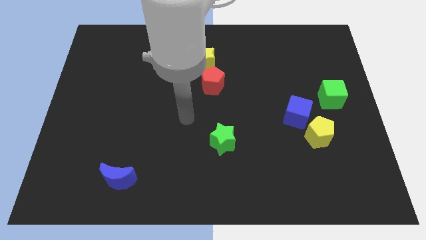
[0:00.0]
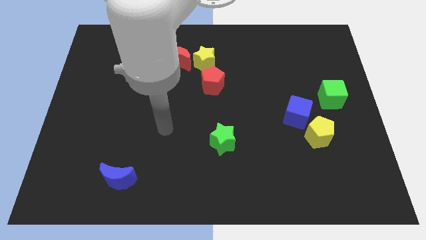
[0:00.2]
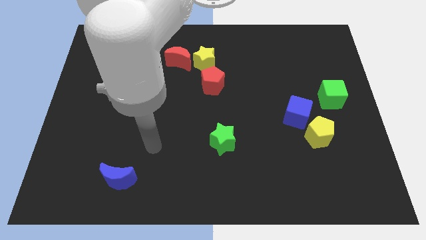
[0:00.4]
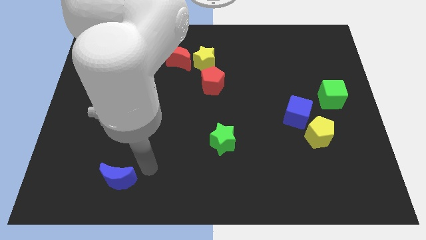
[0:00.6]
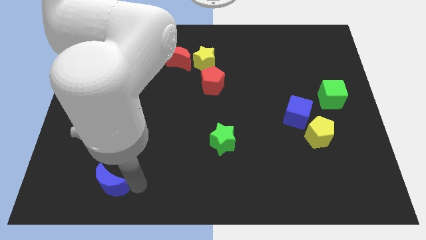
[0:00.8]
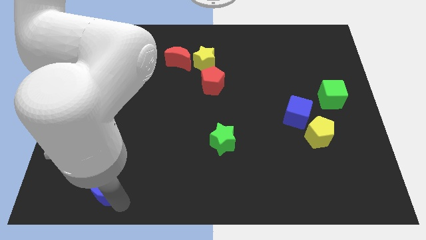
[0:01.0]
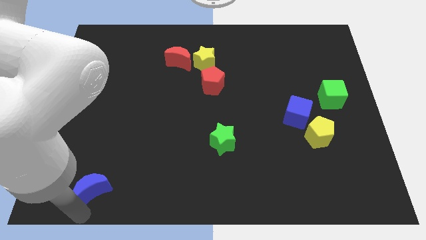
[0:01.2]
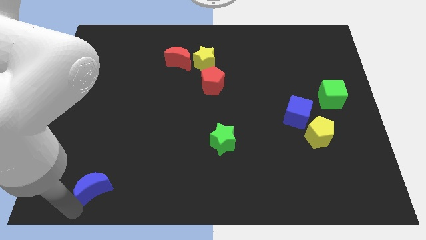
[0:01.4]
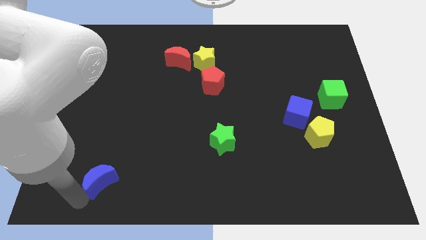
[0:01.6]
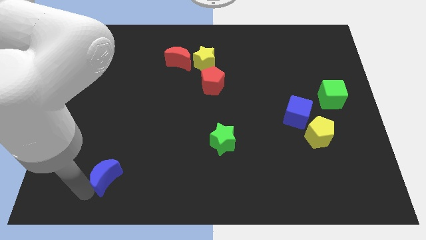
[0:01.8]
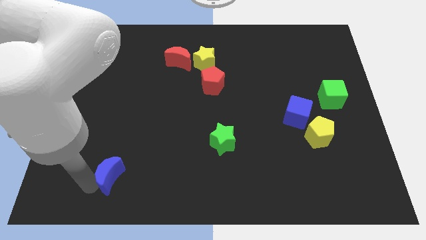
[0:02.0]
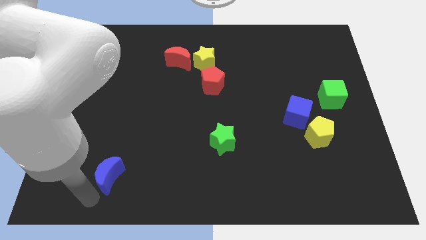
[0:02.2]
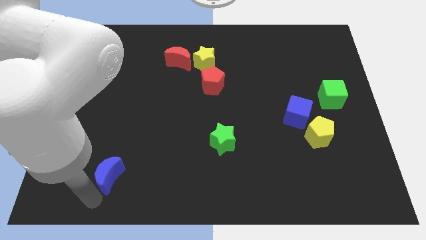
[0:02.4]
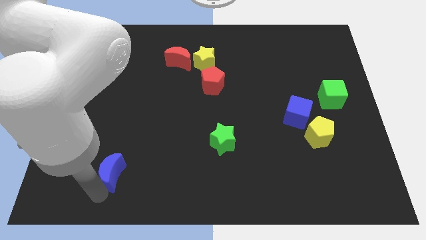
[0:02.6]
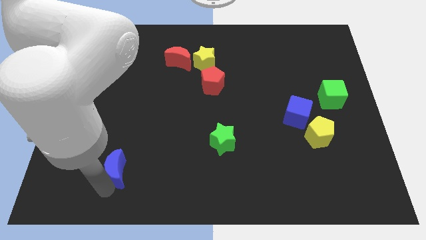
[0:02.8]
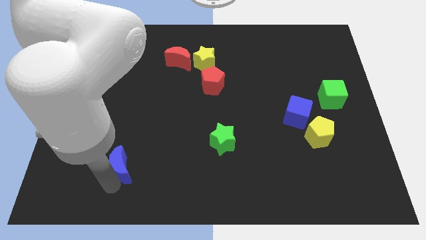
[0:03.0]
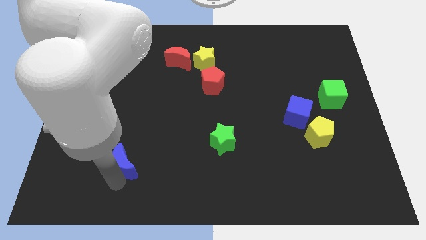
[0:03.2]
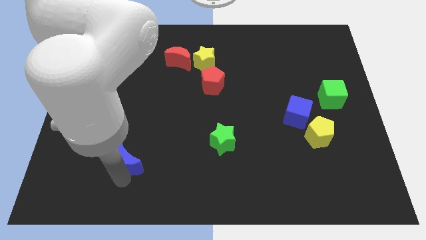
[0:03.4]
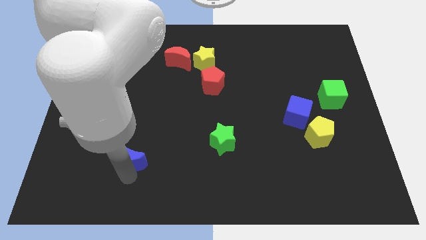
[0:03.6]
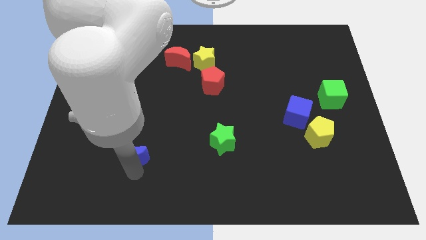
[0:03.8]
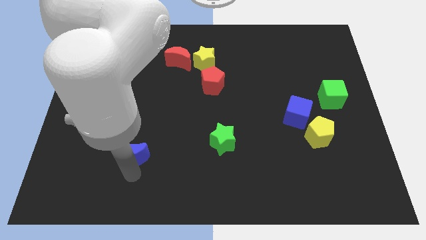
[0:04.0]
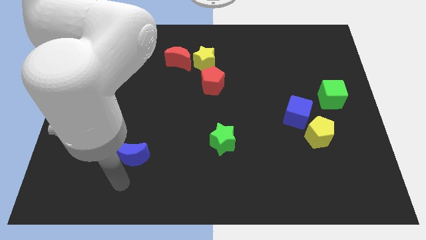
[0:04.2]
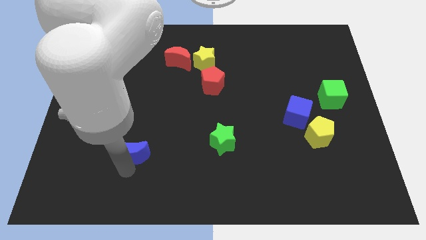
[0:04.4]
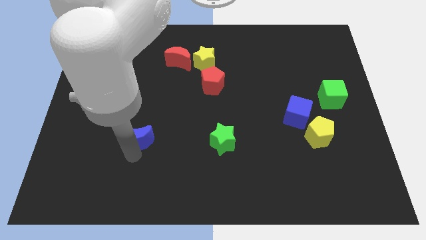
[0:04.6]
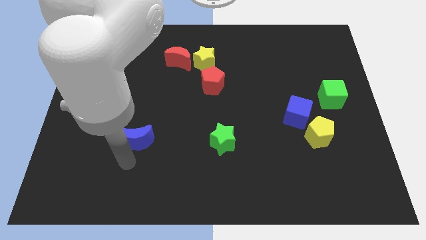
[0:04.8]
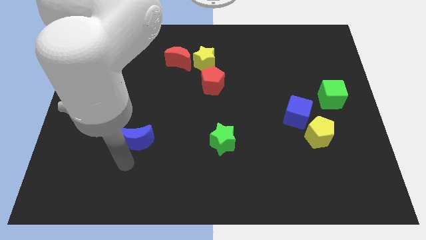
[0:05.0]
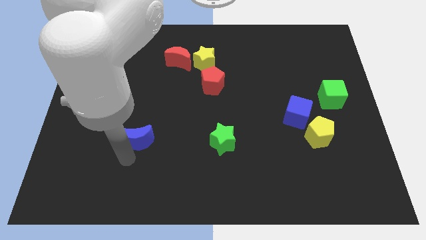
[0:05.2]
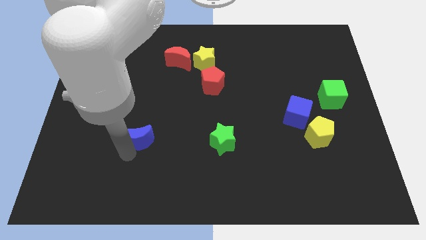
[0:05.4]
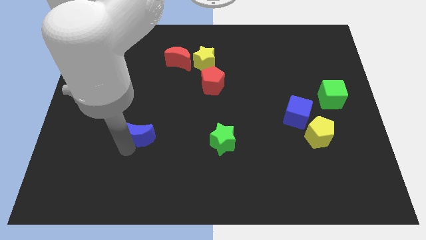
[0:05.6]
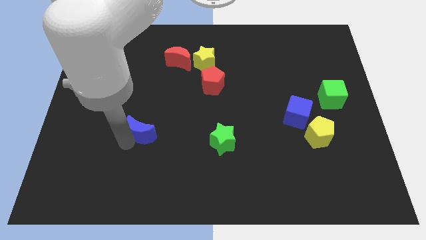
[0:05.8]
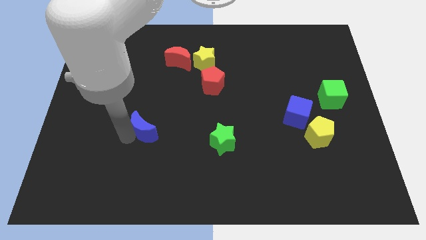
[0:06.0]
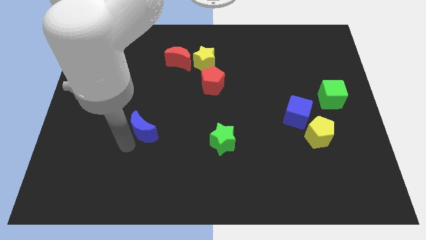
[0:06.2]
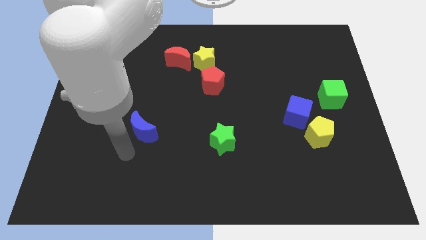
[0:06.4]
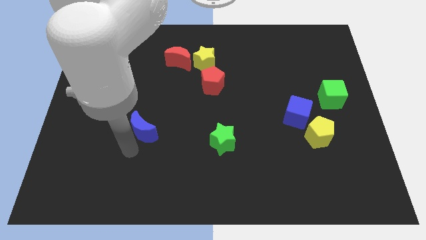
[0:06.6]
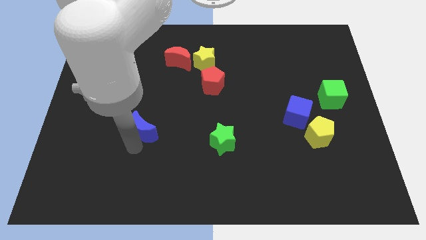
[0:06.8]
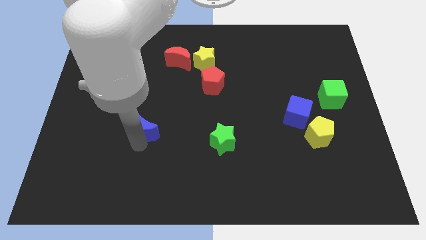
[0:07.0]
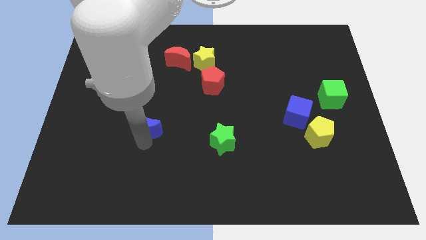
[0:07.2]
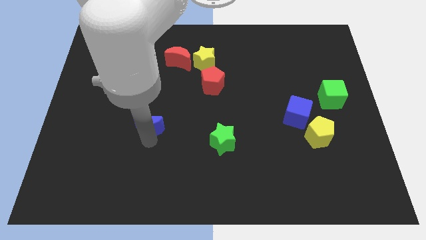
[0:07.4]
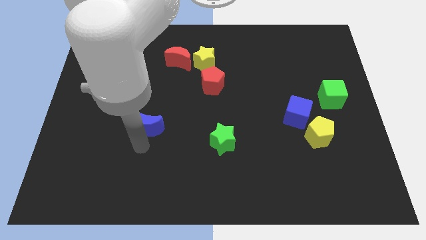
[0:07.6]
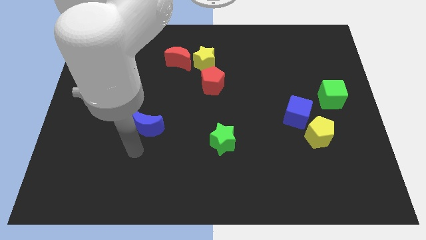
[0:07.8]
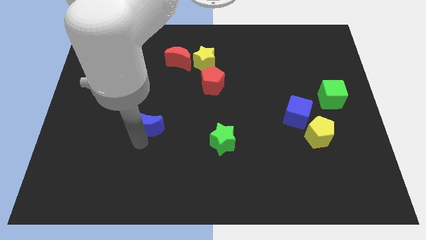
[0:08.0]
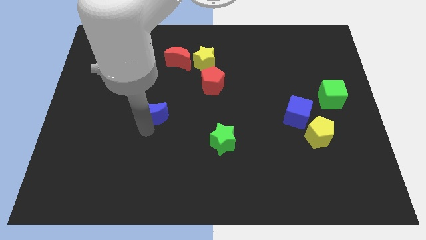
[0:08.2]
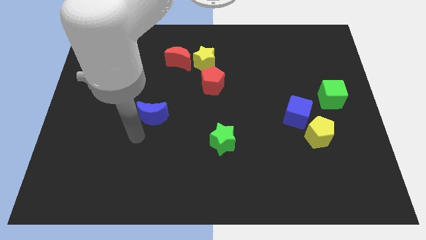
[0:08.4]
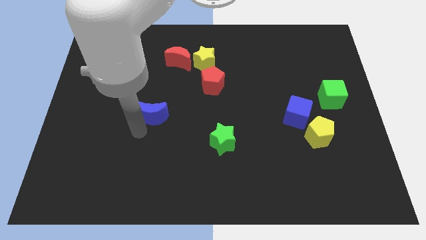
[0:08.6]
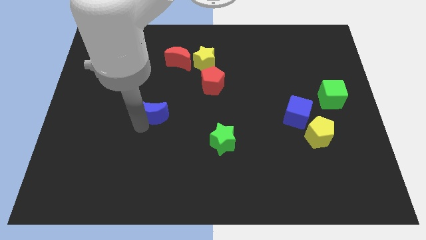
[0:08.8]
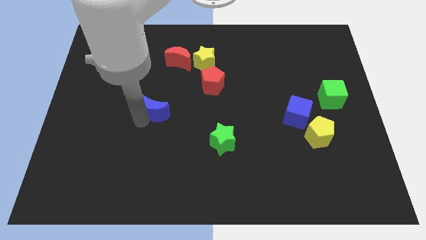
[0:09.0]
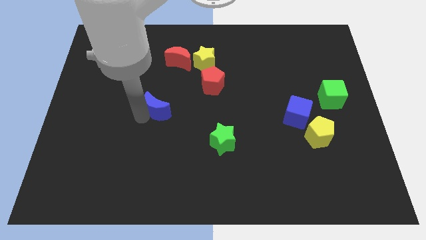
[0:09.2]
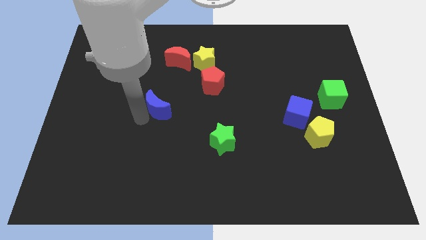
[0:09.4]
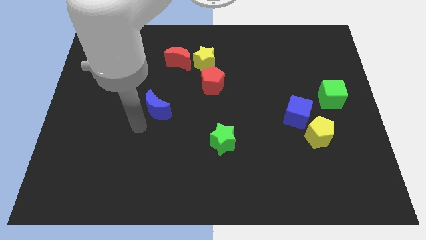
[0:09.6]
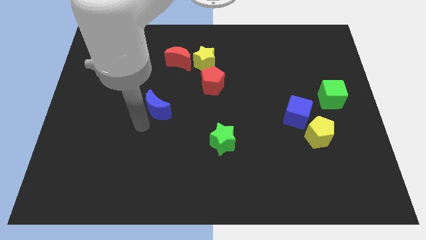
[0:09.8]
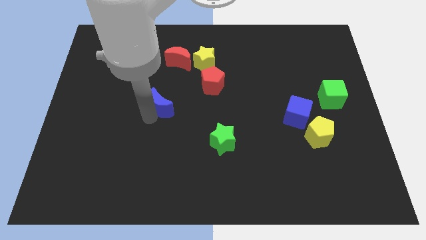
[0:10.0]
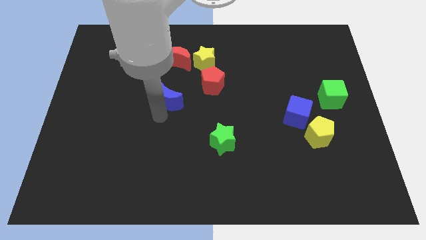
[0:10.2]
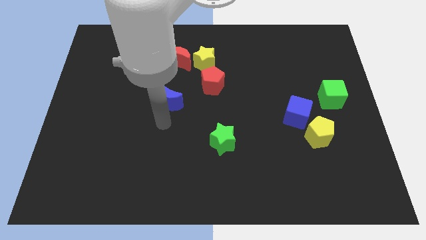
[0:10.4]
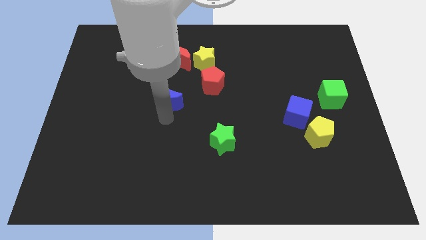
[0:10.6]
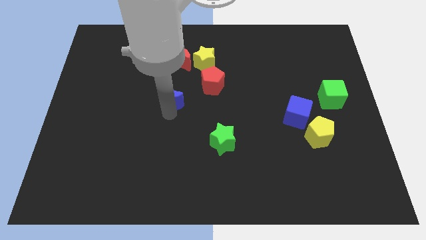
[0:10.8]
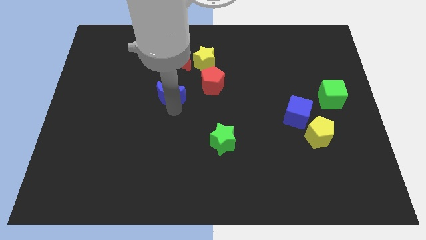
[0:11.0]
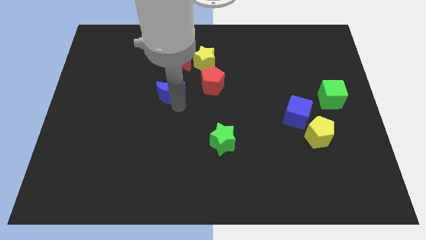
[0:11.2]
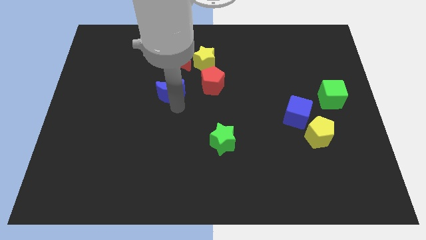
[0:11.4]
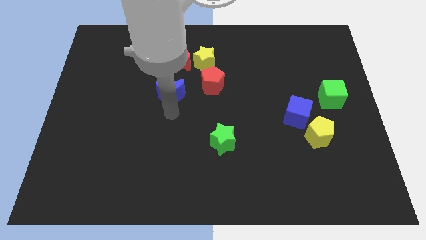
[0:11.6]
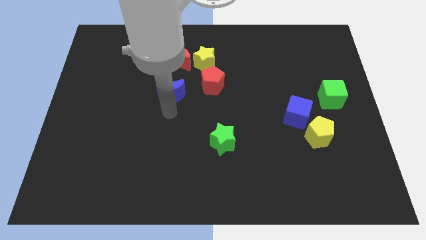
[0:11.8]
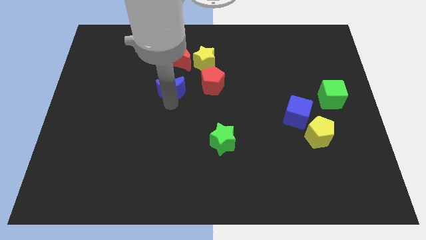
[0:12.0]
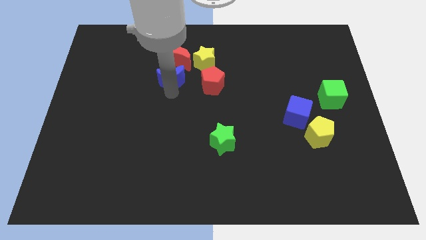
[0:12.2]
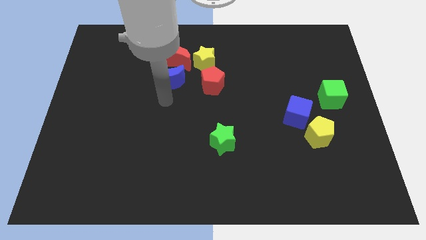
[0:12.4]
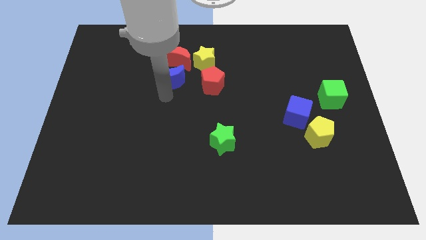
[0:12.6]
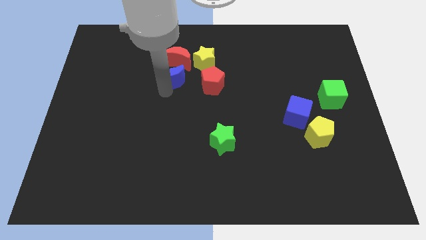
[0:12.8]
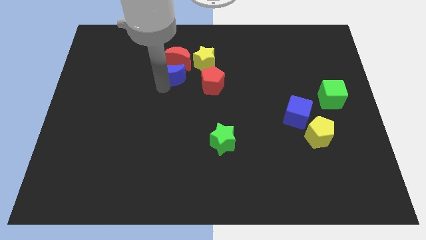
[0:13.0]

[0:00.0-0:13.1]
push the blue moon close to the red moon

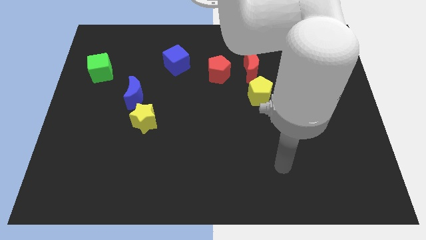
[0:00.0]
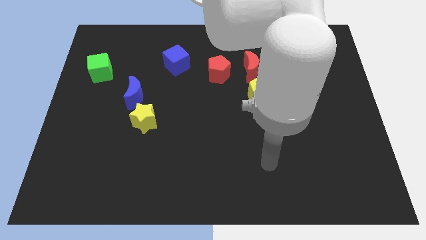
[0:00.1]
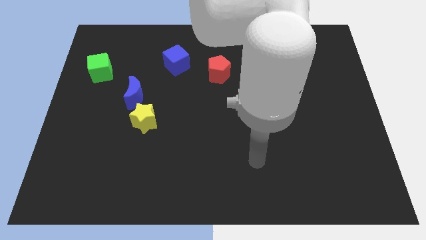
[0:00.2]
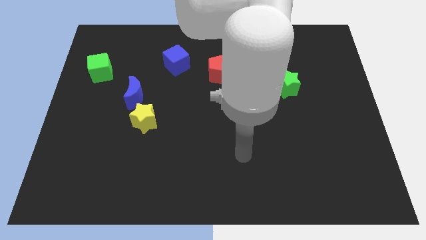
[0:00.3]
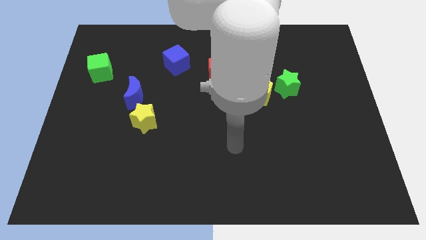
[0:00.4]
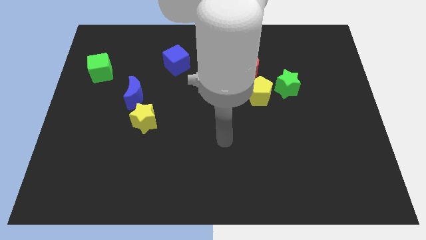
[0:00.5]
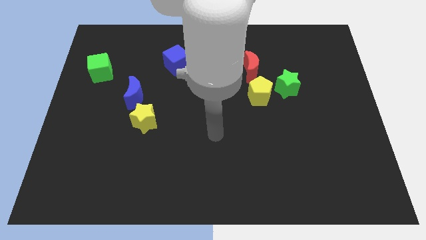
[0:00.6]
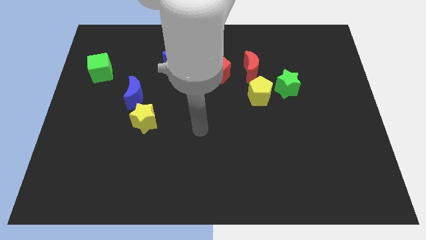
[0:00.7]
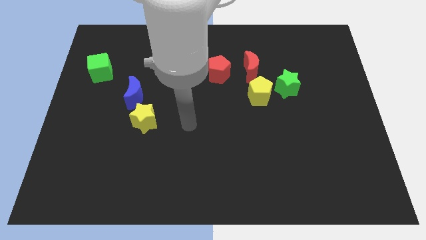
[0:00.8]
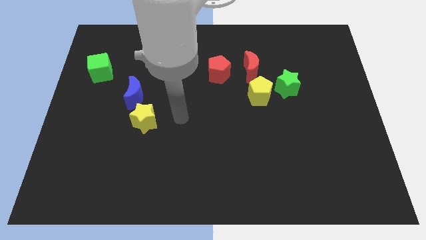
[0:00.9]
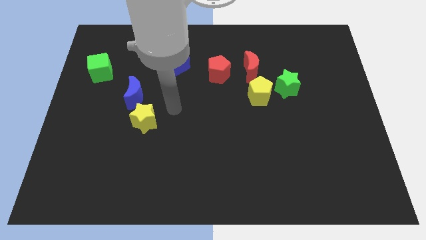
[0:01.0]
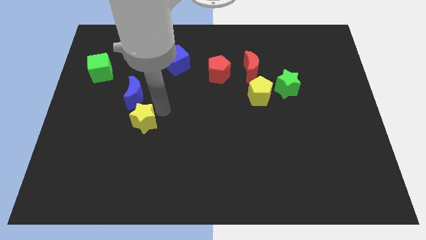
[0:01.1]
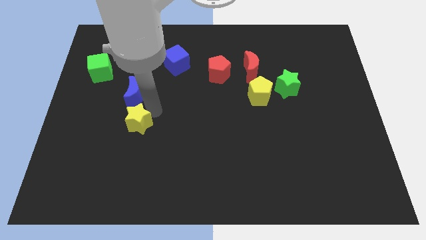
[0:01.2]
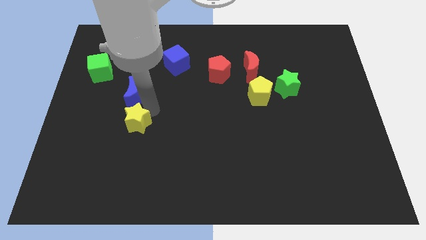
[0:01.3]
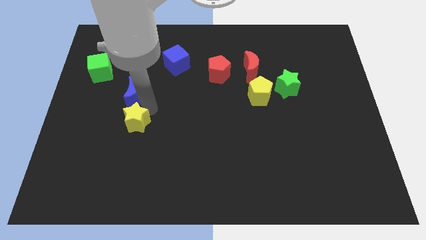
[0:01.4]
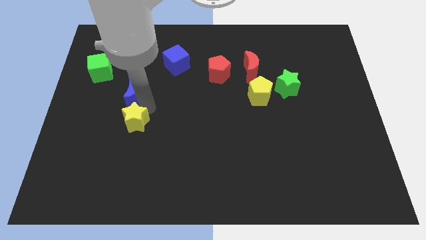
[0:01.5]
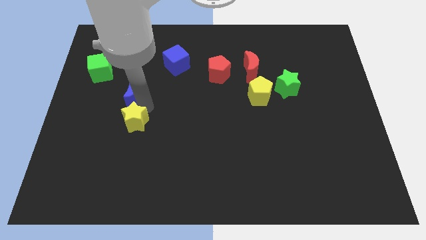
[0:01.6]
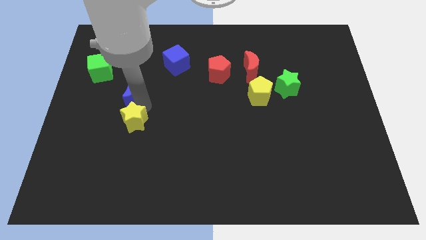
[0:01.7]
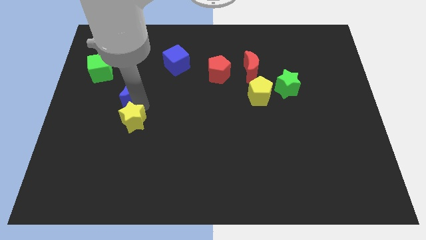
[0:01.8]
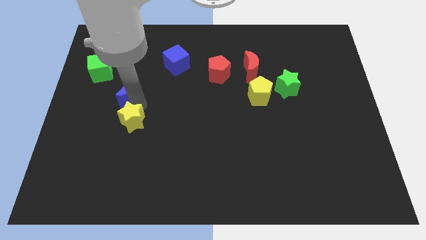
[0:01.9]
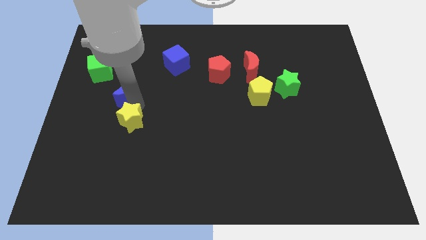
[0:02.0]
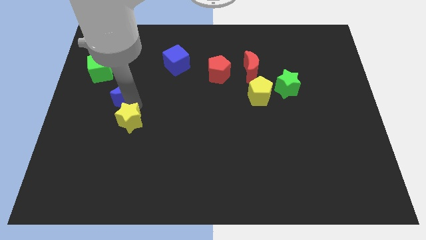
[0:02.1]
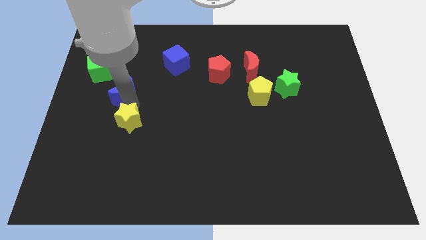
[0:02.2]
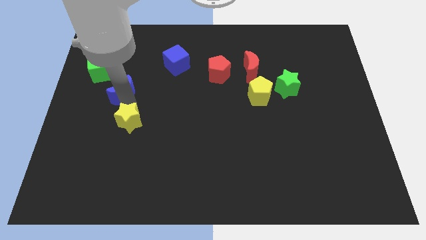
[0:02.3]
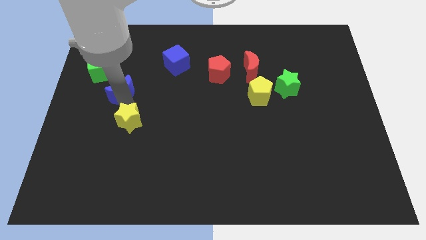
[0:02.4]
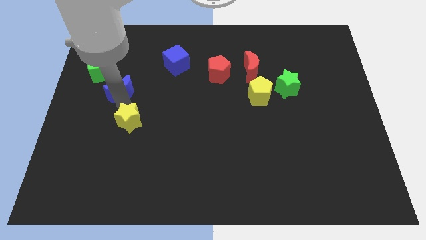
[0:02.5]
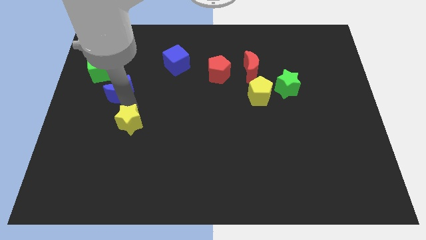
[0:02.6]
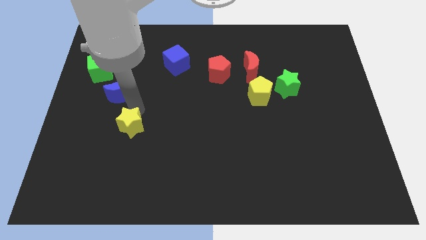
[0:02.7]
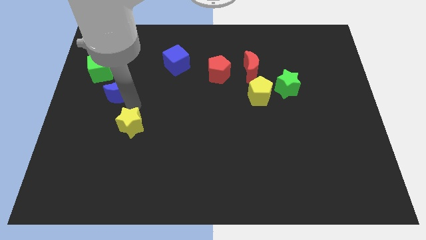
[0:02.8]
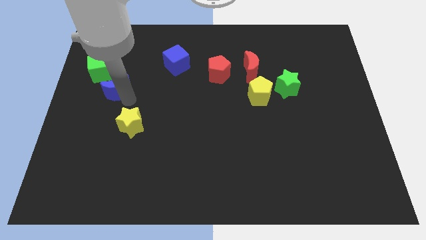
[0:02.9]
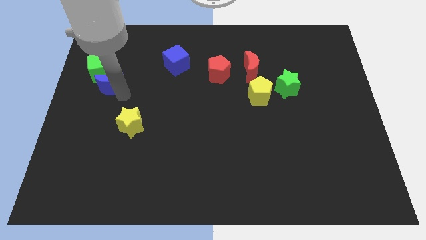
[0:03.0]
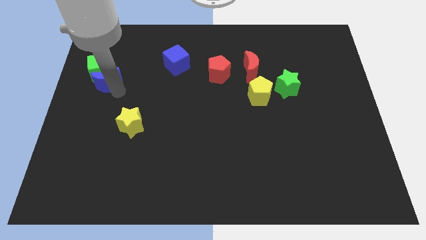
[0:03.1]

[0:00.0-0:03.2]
push the blue moon to the green cube
